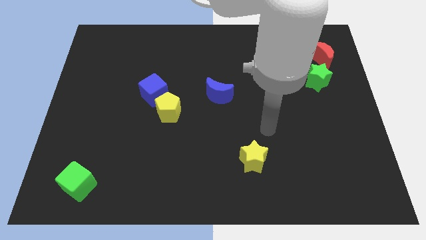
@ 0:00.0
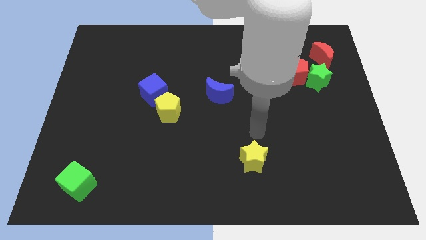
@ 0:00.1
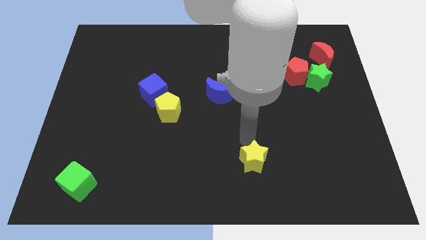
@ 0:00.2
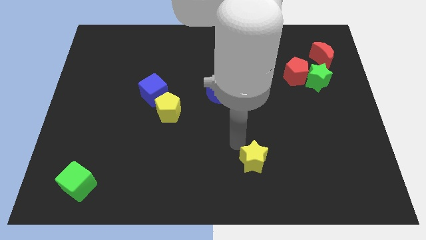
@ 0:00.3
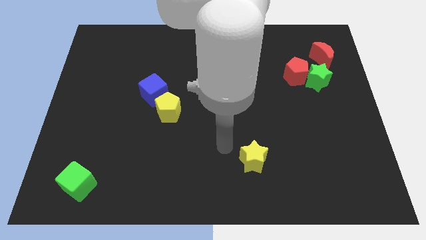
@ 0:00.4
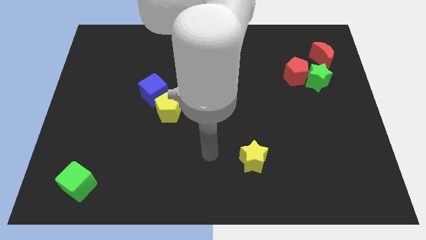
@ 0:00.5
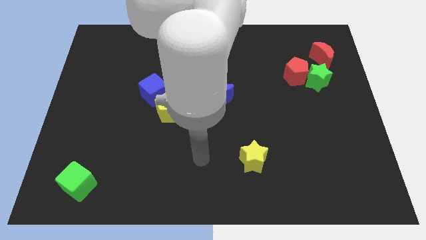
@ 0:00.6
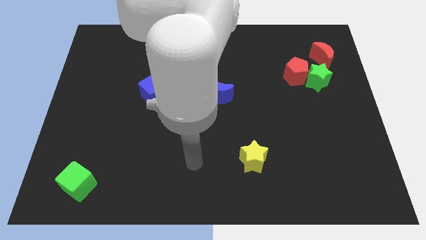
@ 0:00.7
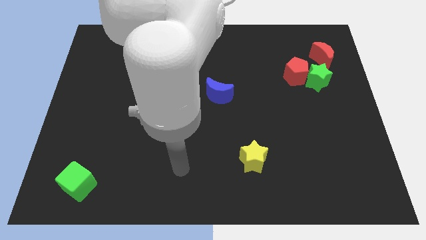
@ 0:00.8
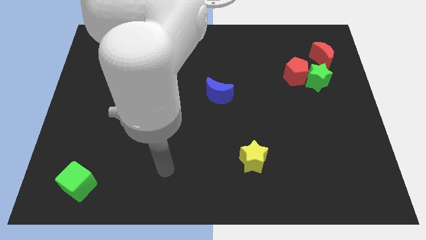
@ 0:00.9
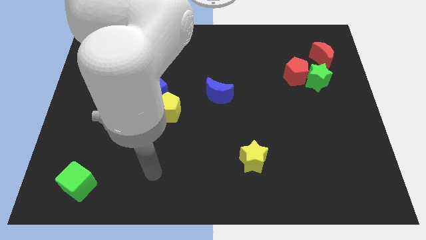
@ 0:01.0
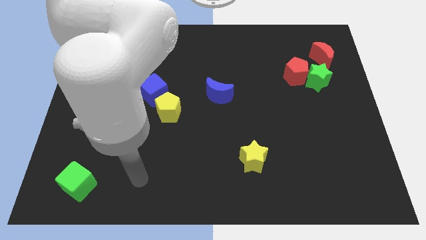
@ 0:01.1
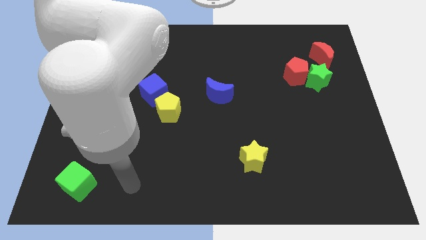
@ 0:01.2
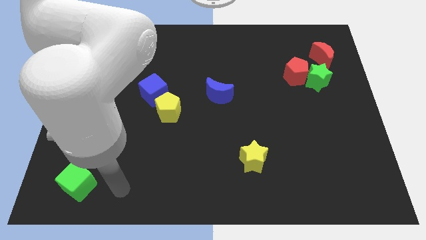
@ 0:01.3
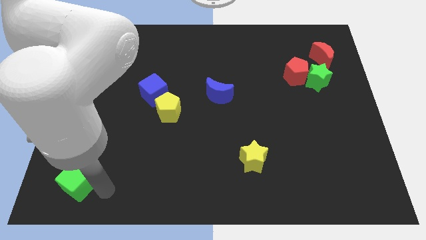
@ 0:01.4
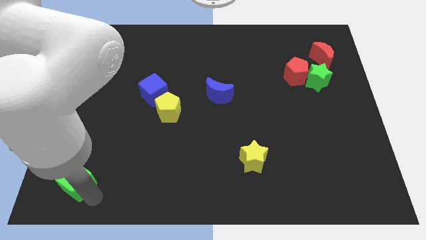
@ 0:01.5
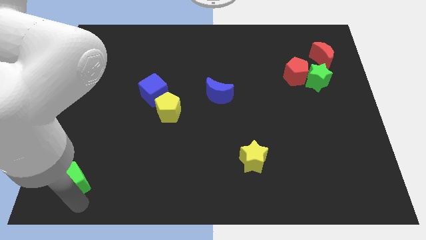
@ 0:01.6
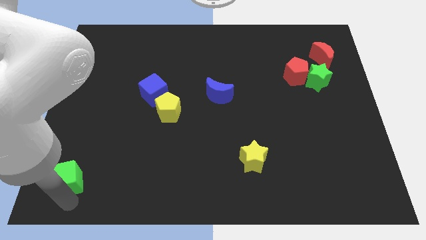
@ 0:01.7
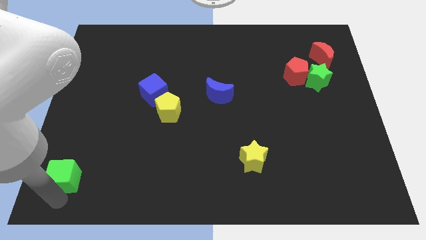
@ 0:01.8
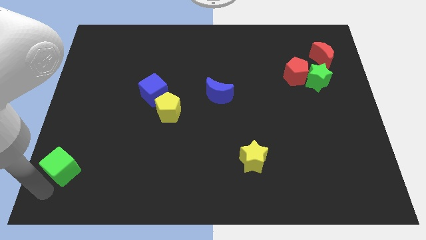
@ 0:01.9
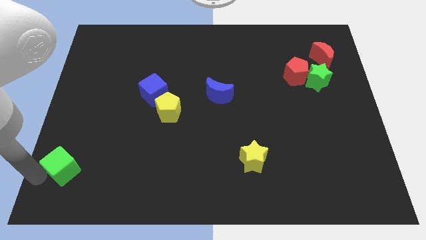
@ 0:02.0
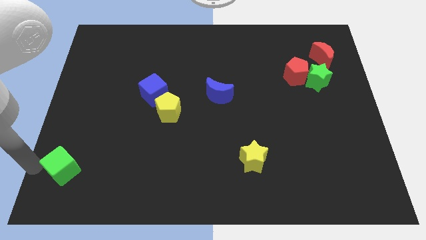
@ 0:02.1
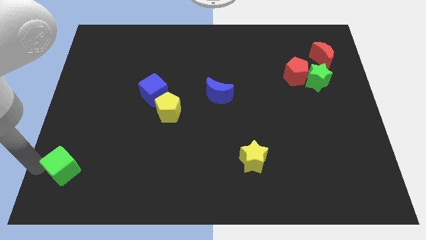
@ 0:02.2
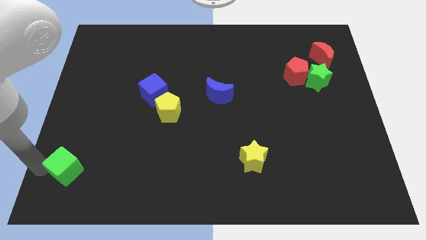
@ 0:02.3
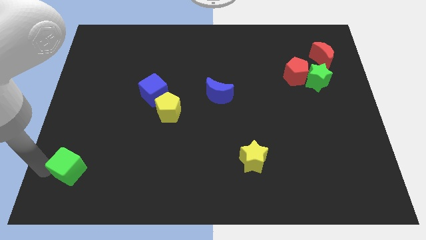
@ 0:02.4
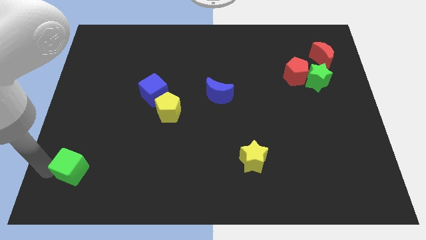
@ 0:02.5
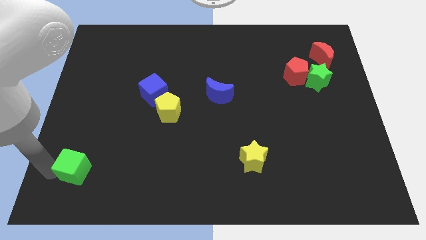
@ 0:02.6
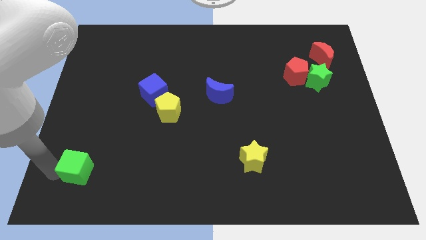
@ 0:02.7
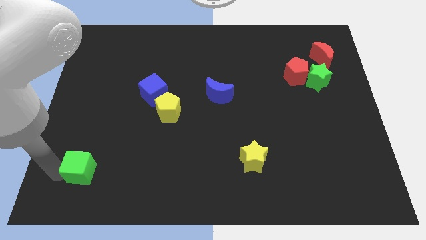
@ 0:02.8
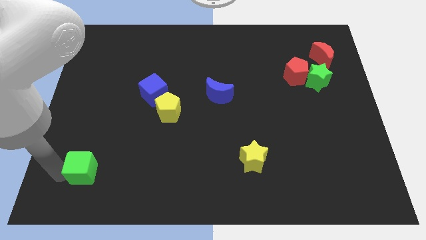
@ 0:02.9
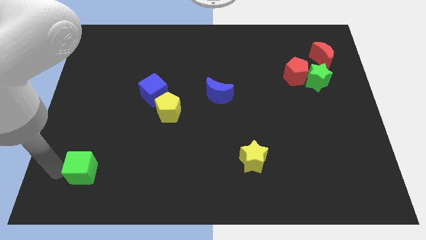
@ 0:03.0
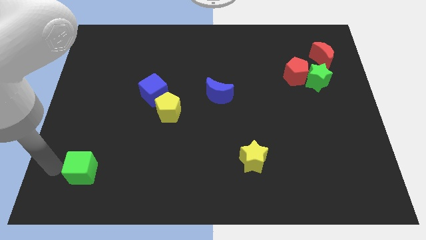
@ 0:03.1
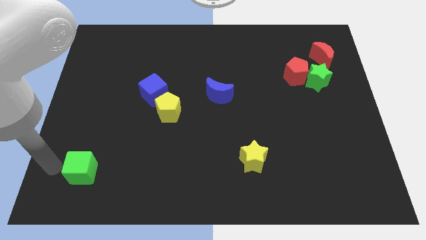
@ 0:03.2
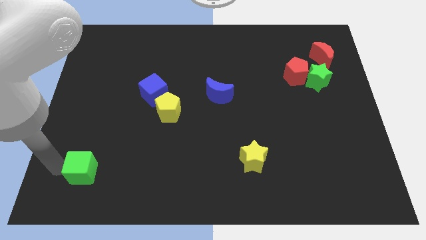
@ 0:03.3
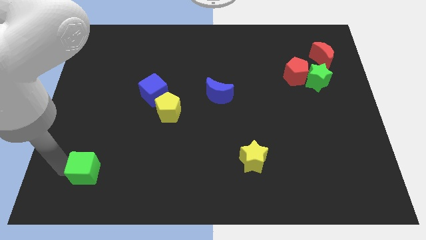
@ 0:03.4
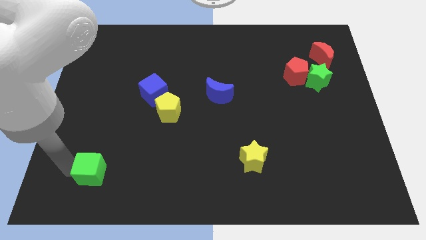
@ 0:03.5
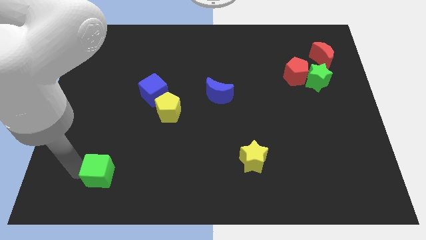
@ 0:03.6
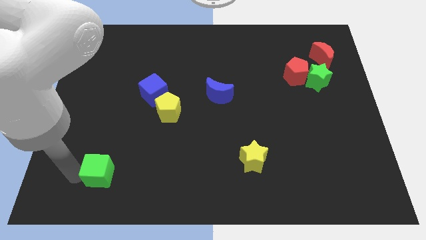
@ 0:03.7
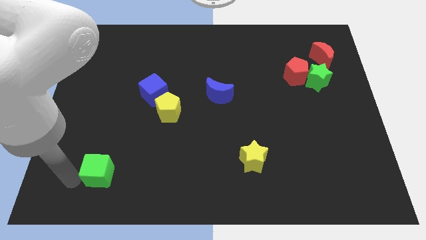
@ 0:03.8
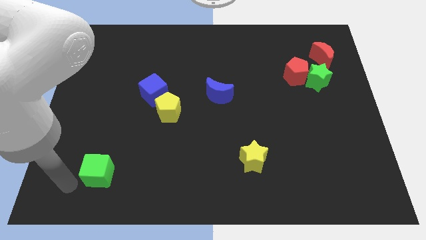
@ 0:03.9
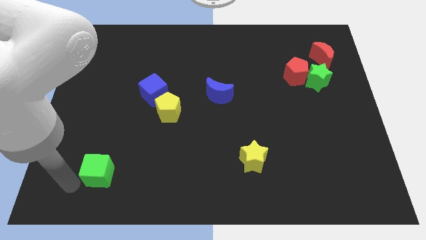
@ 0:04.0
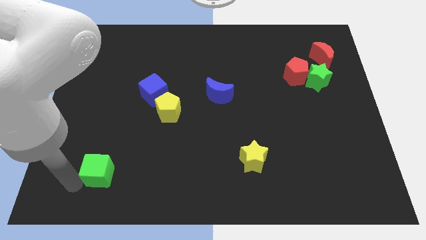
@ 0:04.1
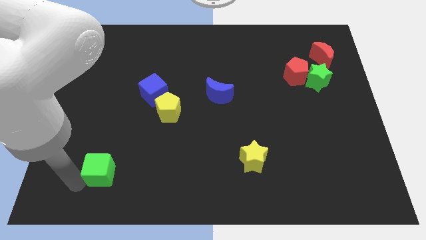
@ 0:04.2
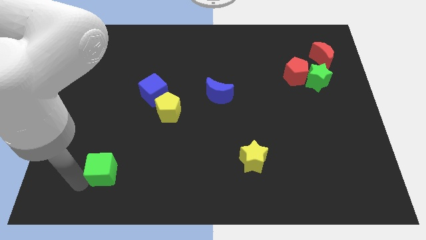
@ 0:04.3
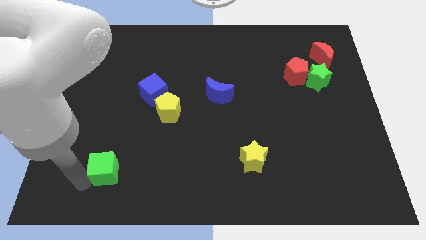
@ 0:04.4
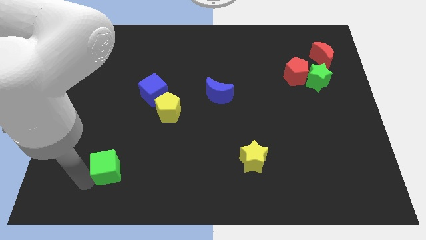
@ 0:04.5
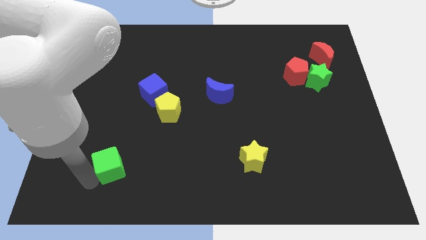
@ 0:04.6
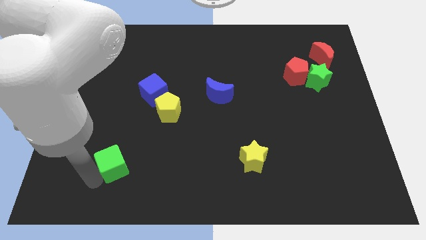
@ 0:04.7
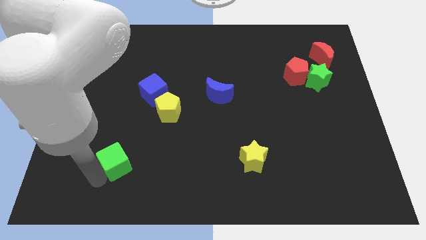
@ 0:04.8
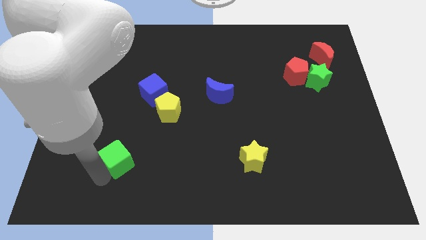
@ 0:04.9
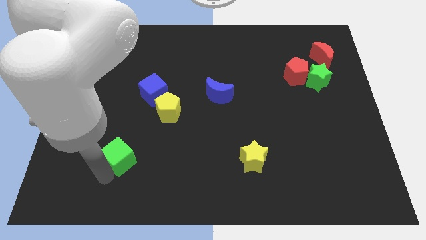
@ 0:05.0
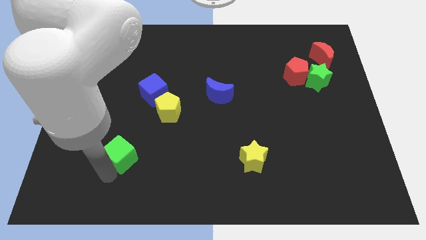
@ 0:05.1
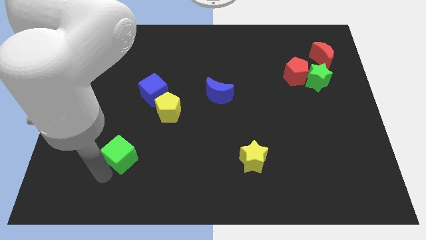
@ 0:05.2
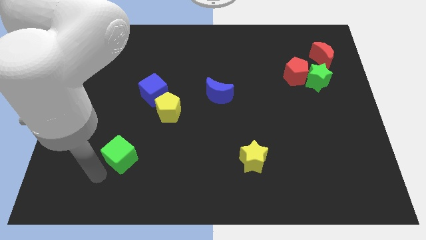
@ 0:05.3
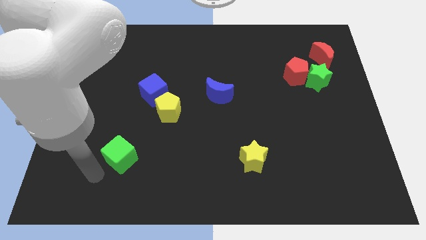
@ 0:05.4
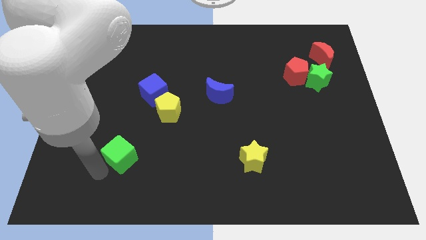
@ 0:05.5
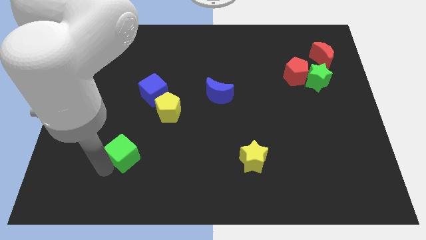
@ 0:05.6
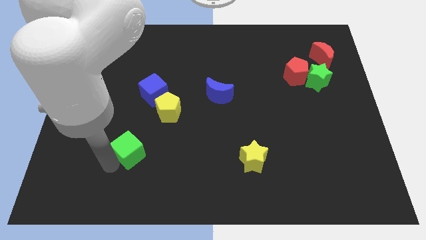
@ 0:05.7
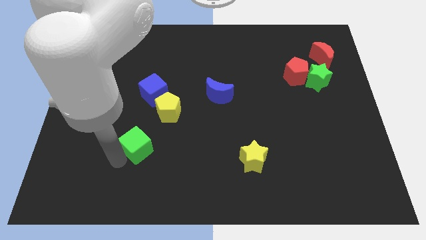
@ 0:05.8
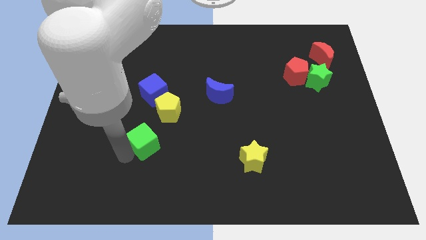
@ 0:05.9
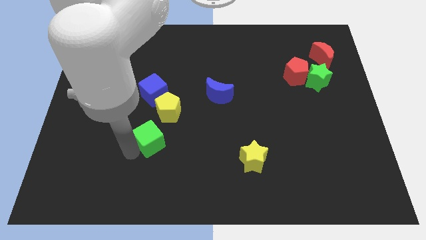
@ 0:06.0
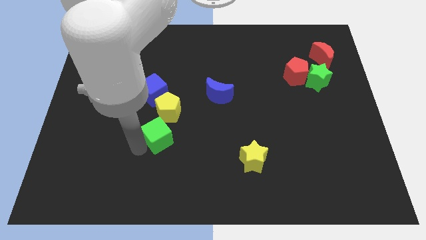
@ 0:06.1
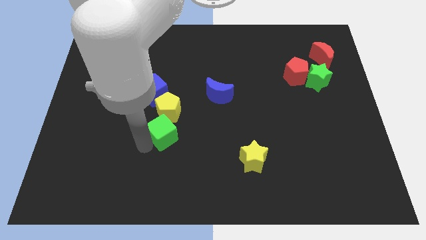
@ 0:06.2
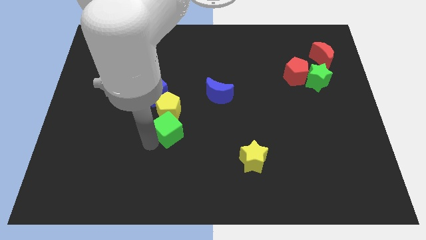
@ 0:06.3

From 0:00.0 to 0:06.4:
slide the green cube upwards and to the right

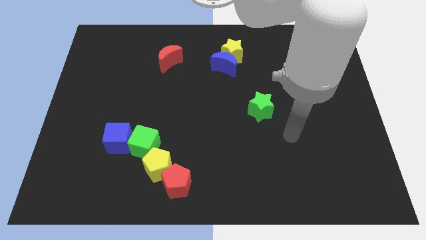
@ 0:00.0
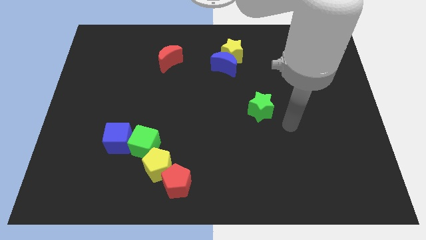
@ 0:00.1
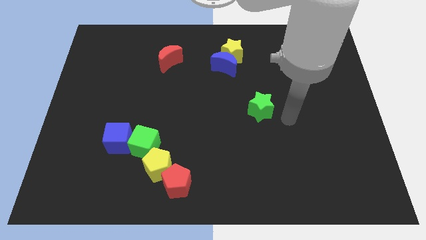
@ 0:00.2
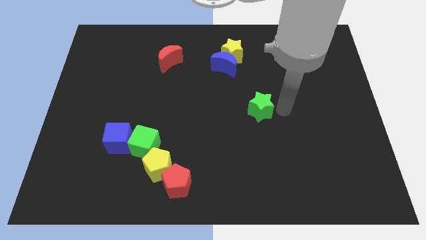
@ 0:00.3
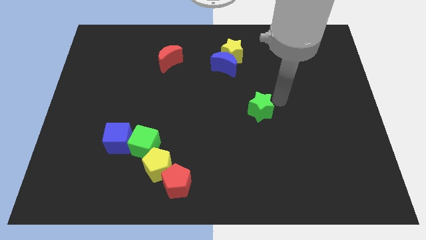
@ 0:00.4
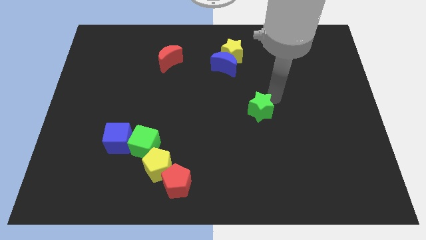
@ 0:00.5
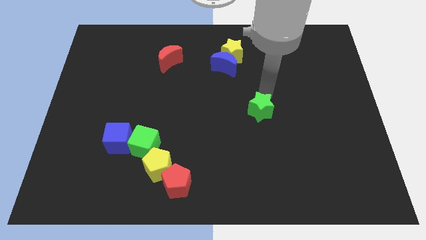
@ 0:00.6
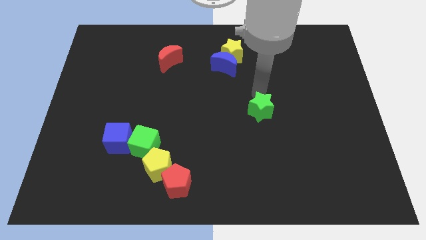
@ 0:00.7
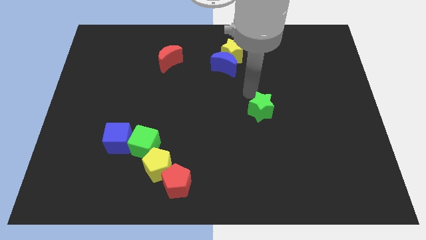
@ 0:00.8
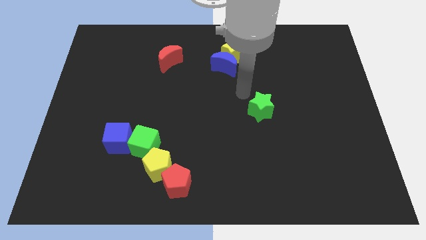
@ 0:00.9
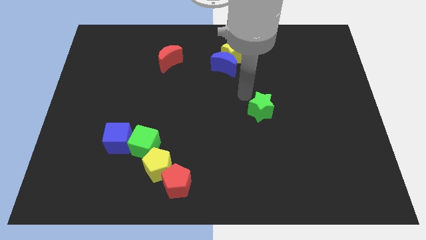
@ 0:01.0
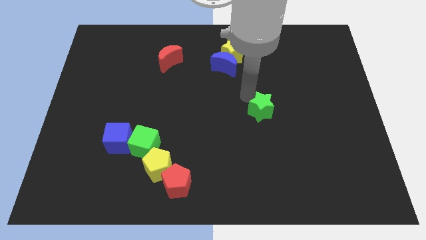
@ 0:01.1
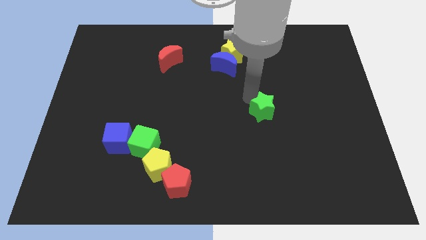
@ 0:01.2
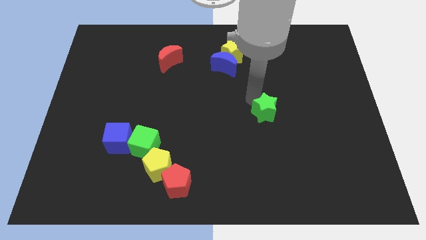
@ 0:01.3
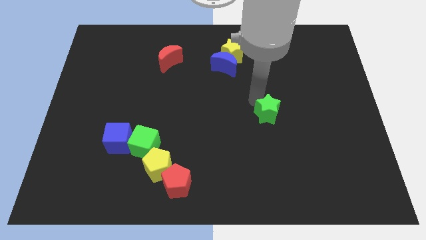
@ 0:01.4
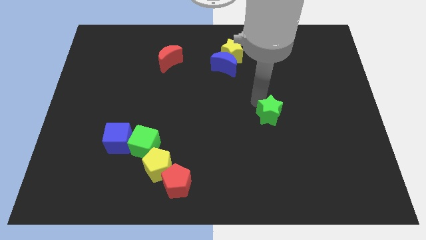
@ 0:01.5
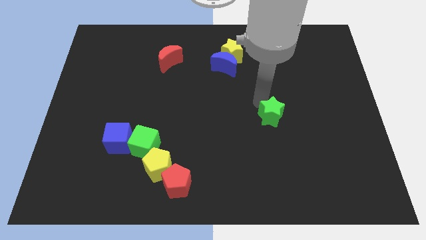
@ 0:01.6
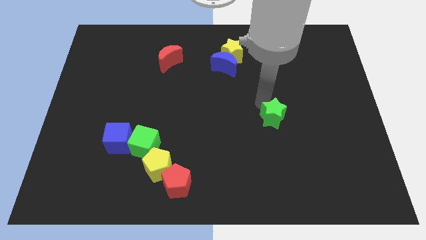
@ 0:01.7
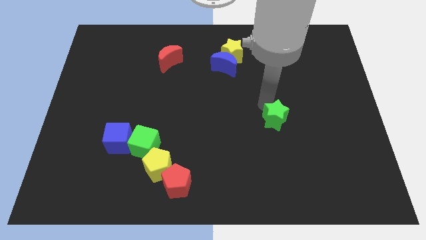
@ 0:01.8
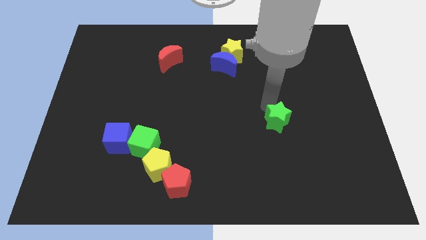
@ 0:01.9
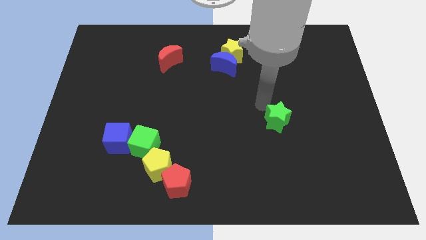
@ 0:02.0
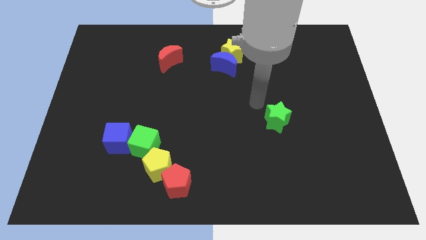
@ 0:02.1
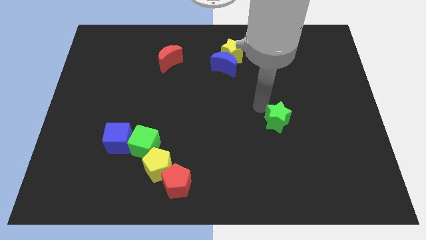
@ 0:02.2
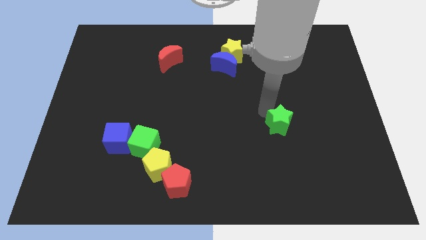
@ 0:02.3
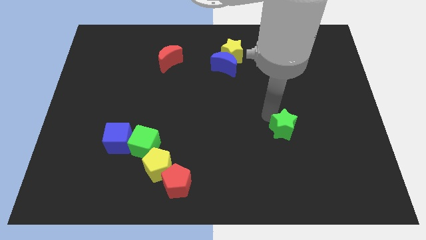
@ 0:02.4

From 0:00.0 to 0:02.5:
slightly move the green star down and to the right diagonally
